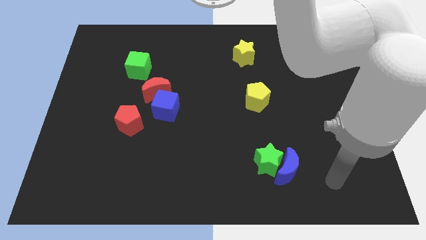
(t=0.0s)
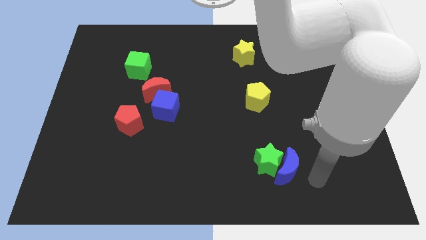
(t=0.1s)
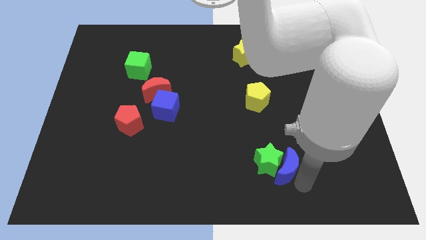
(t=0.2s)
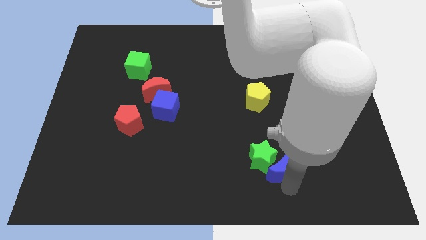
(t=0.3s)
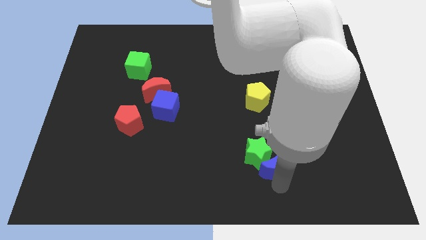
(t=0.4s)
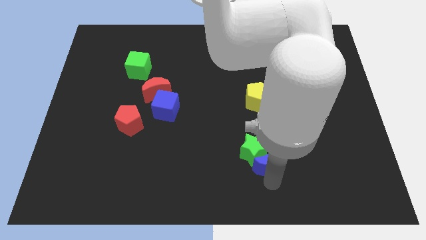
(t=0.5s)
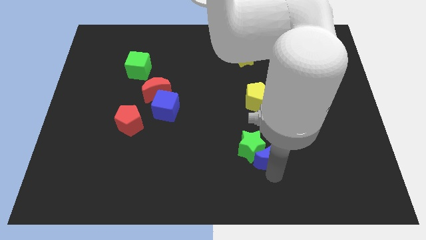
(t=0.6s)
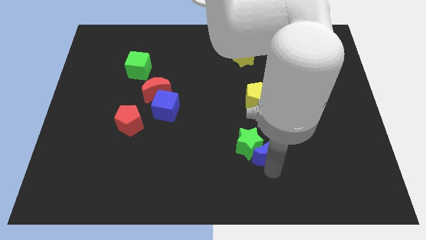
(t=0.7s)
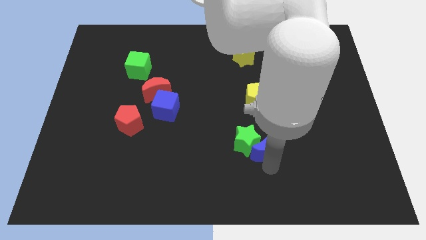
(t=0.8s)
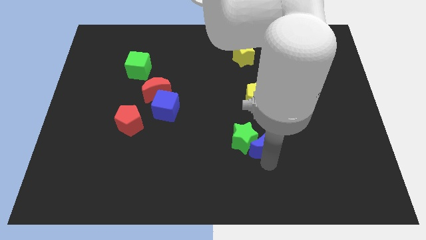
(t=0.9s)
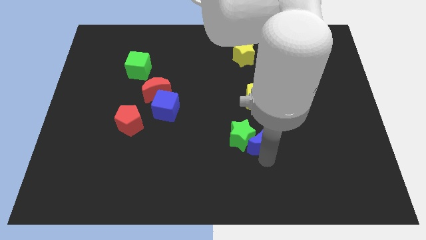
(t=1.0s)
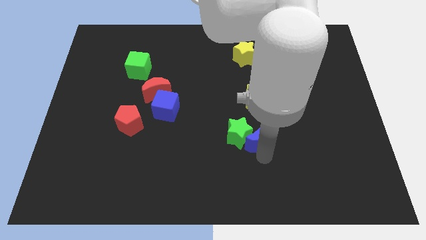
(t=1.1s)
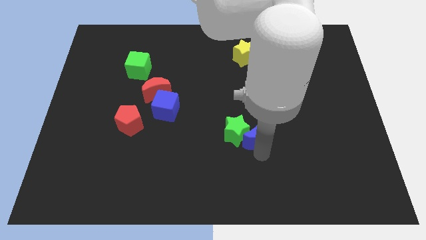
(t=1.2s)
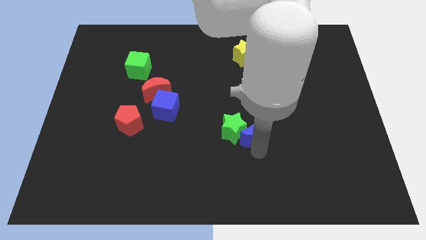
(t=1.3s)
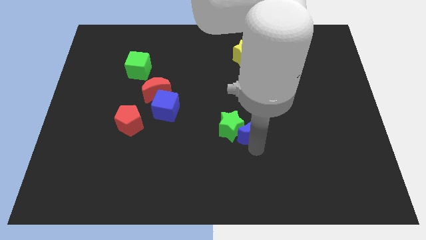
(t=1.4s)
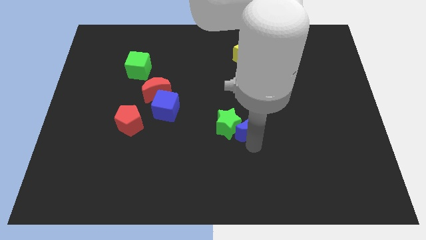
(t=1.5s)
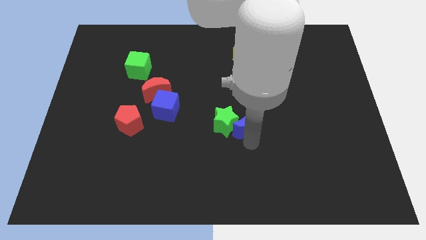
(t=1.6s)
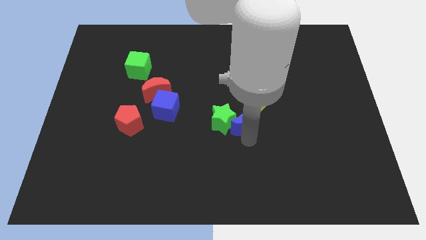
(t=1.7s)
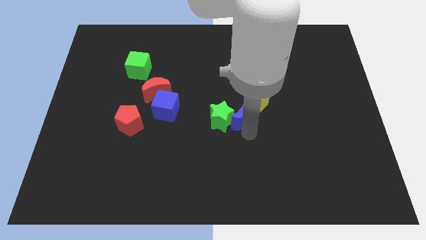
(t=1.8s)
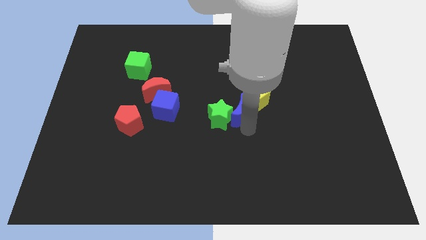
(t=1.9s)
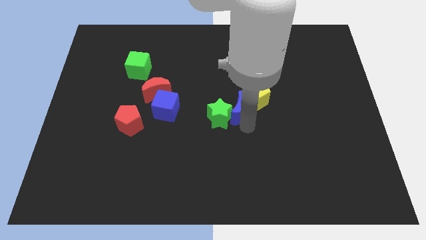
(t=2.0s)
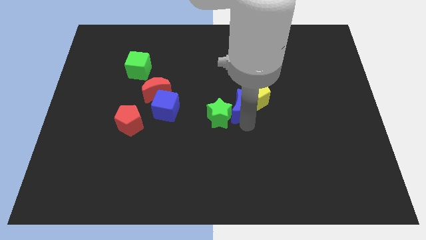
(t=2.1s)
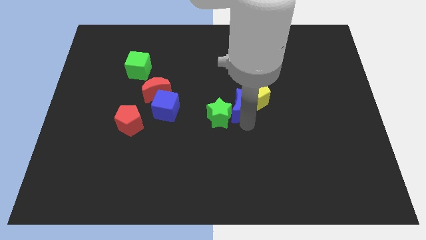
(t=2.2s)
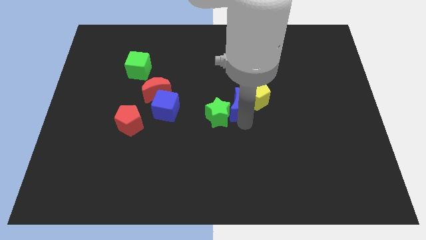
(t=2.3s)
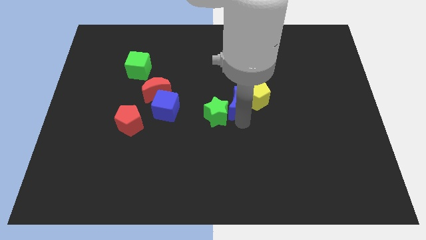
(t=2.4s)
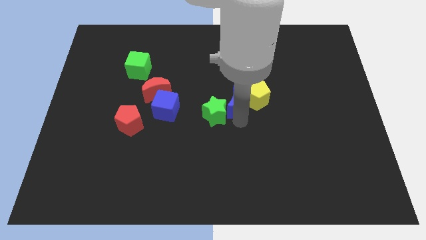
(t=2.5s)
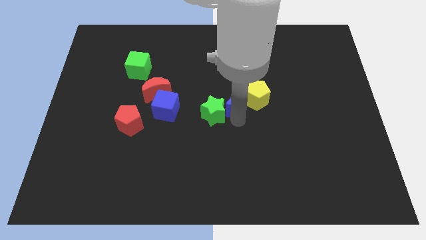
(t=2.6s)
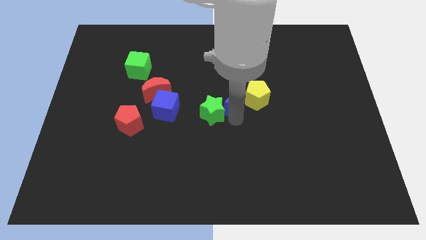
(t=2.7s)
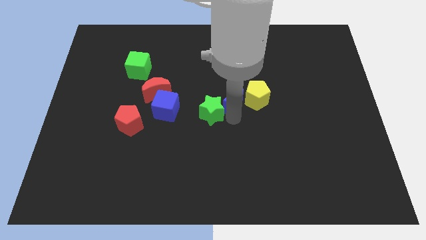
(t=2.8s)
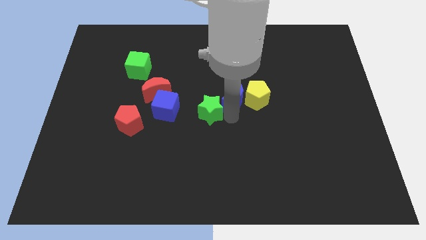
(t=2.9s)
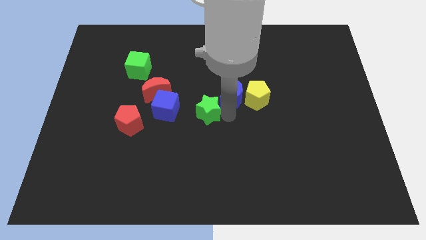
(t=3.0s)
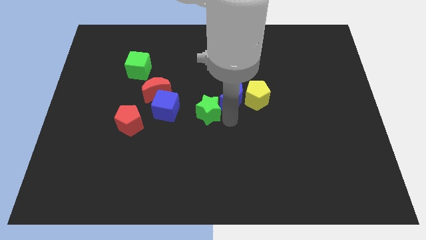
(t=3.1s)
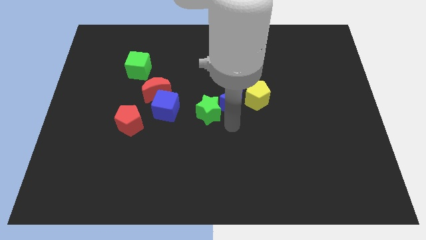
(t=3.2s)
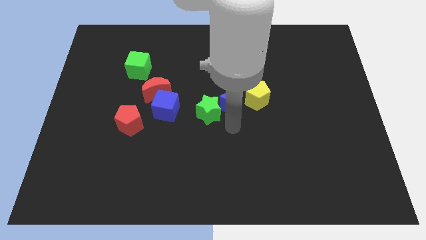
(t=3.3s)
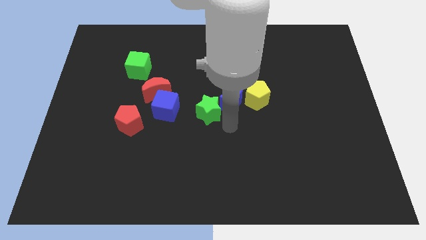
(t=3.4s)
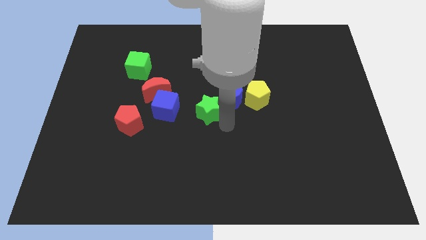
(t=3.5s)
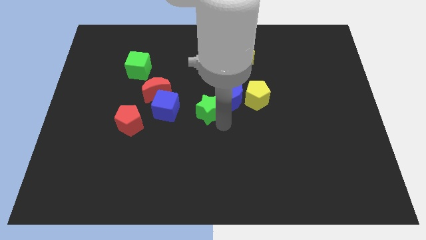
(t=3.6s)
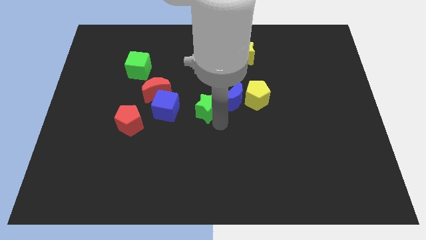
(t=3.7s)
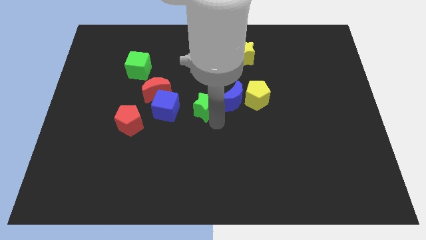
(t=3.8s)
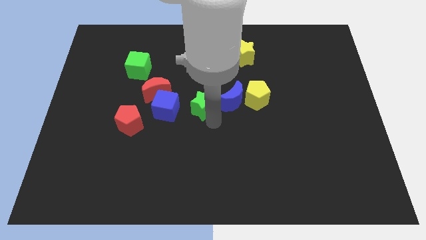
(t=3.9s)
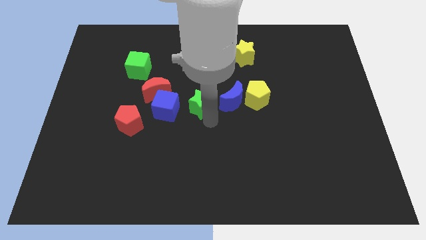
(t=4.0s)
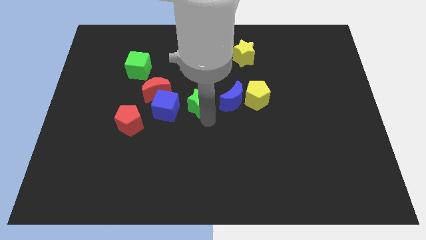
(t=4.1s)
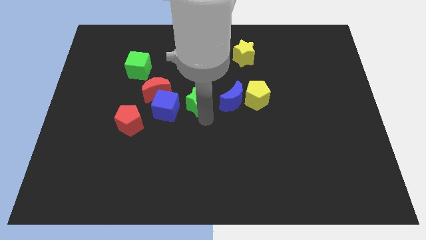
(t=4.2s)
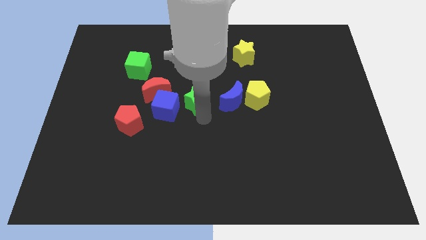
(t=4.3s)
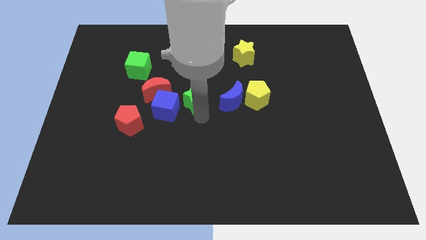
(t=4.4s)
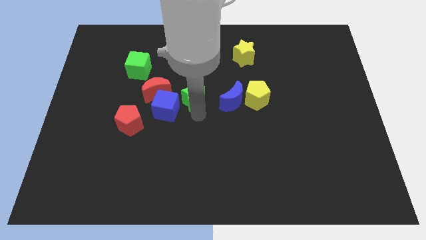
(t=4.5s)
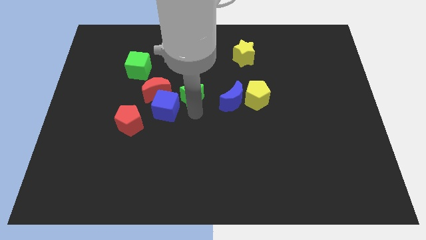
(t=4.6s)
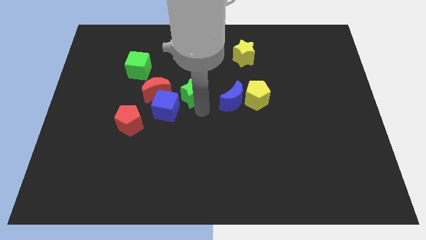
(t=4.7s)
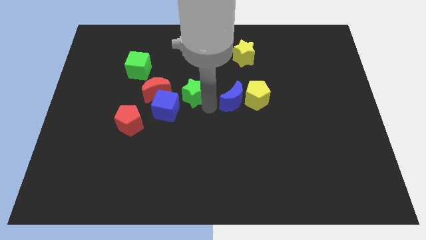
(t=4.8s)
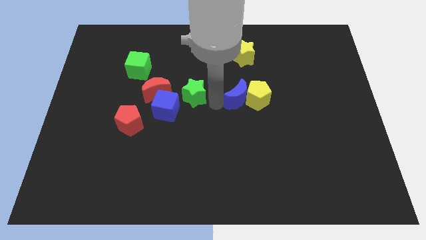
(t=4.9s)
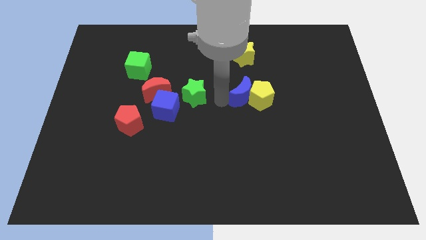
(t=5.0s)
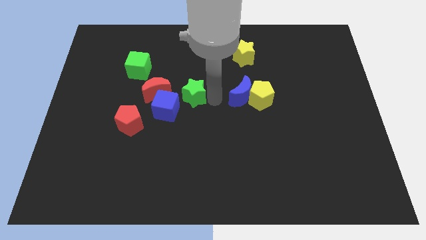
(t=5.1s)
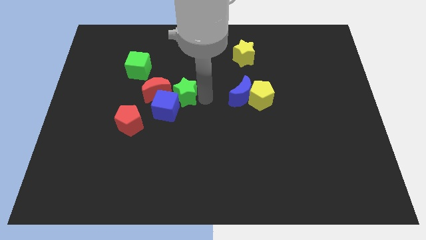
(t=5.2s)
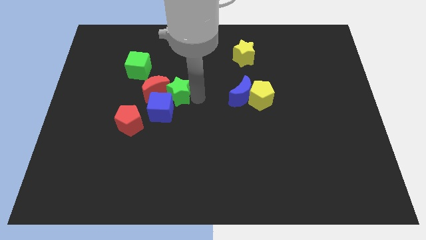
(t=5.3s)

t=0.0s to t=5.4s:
slide the green star to the red moon

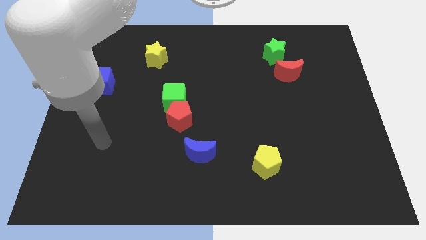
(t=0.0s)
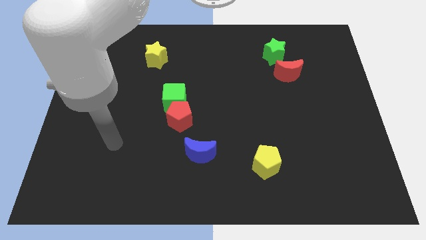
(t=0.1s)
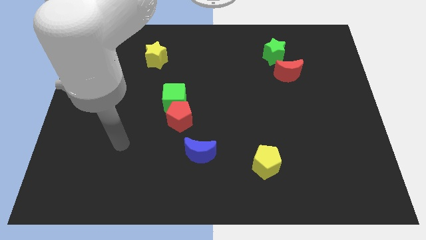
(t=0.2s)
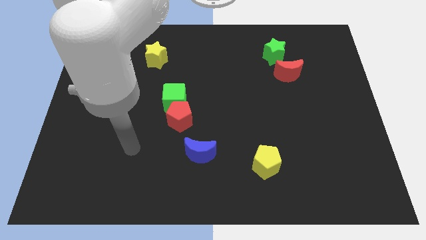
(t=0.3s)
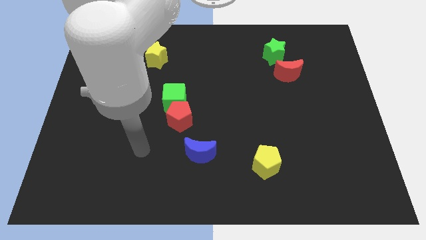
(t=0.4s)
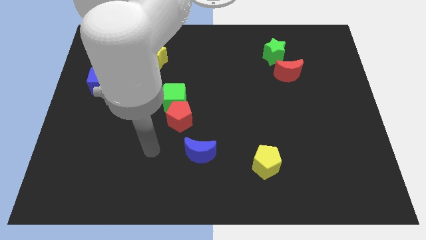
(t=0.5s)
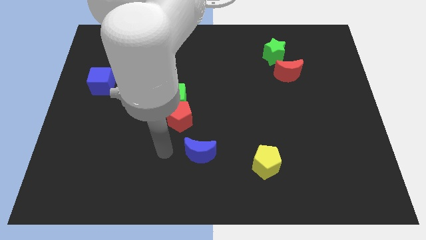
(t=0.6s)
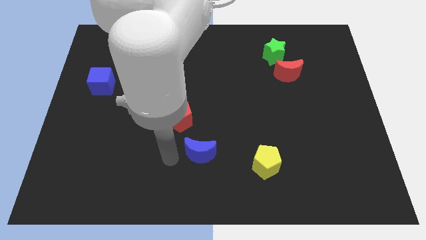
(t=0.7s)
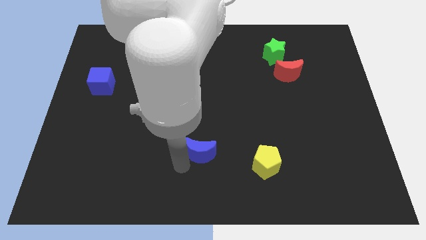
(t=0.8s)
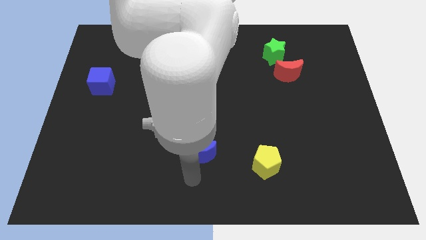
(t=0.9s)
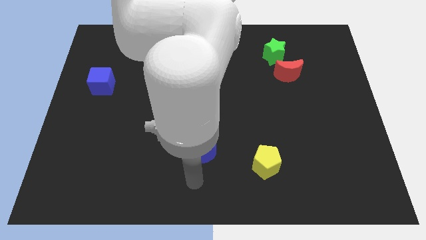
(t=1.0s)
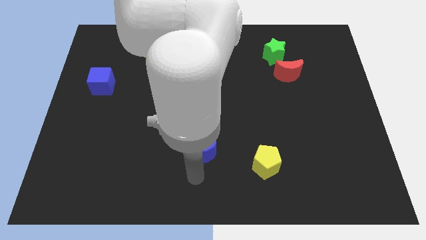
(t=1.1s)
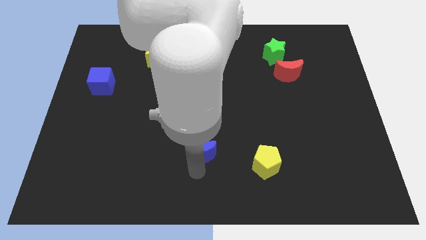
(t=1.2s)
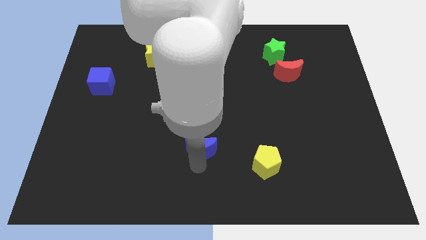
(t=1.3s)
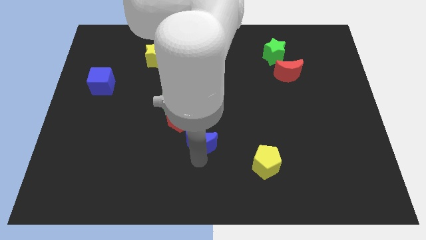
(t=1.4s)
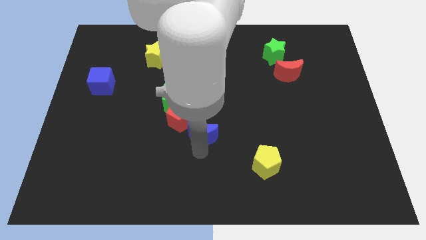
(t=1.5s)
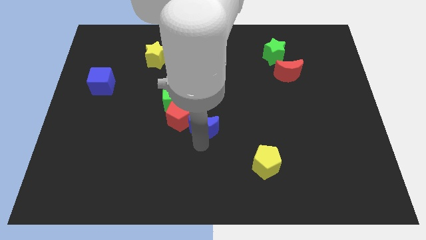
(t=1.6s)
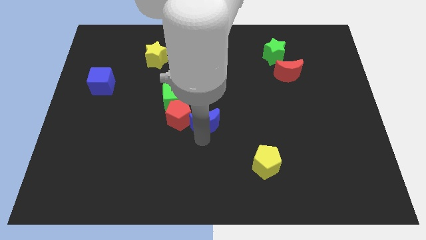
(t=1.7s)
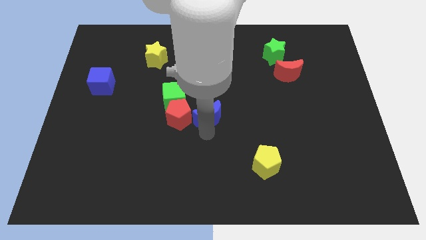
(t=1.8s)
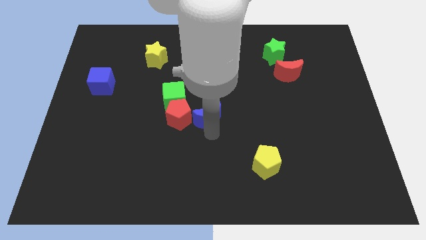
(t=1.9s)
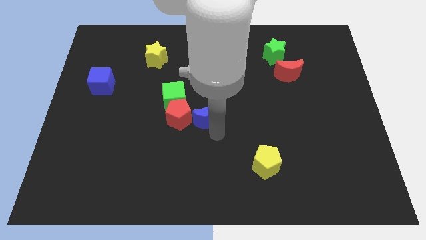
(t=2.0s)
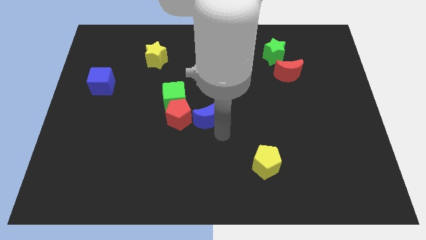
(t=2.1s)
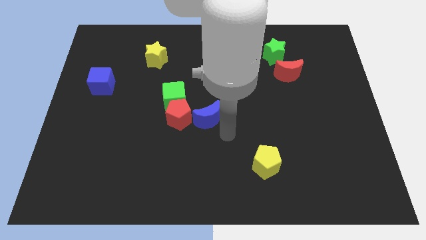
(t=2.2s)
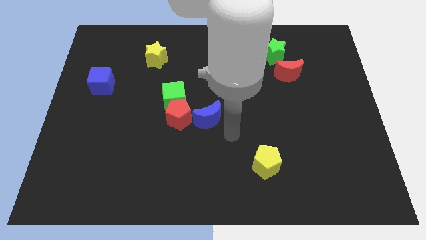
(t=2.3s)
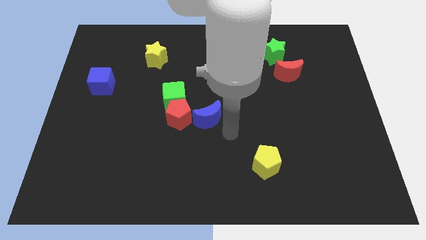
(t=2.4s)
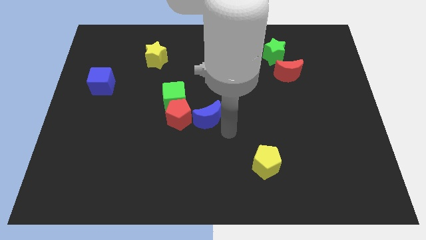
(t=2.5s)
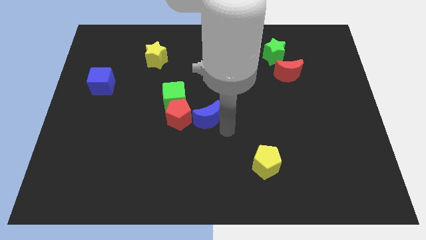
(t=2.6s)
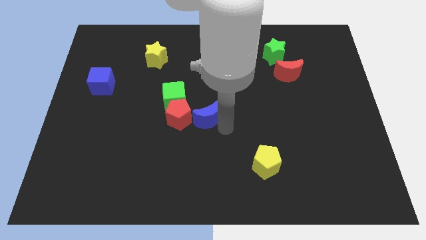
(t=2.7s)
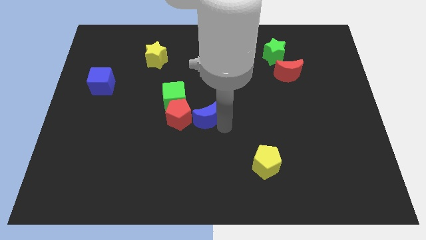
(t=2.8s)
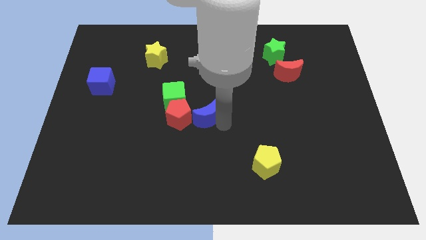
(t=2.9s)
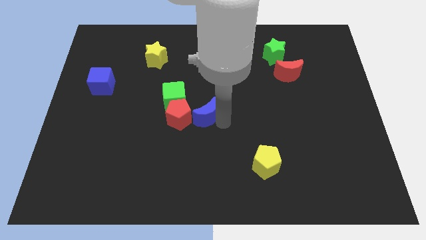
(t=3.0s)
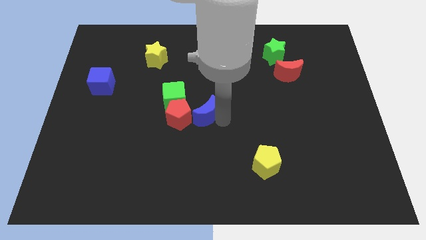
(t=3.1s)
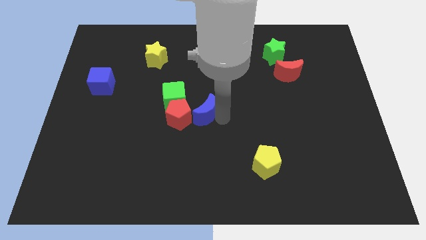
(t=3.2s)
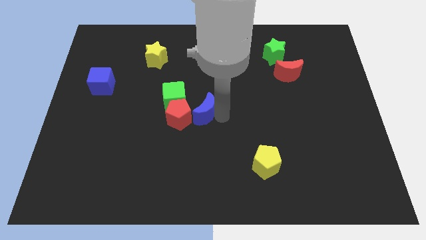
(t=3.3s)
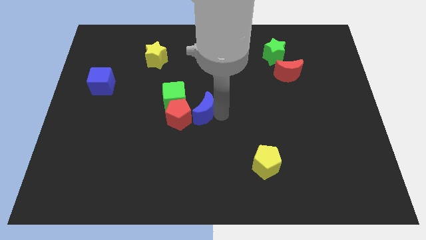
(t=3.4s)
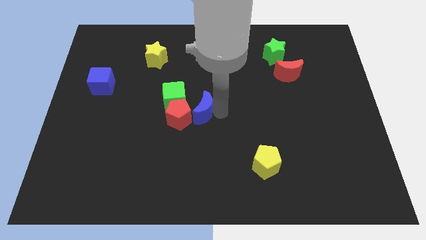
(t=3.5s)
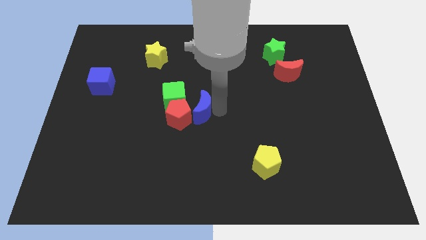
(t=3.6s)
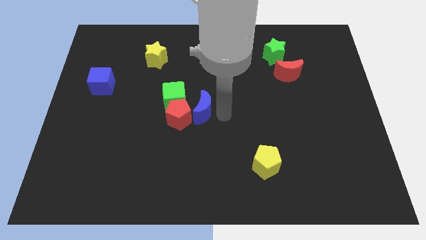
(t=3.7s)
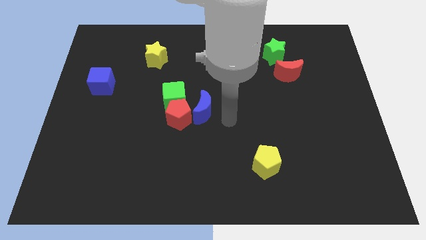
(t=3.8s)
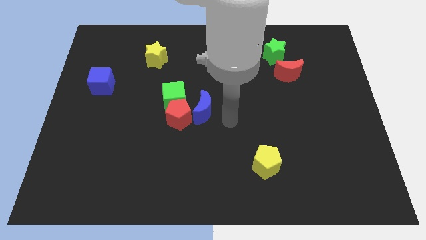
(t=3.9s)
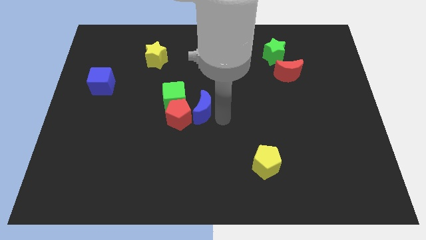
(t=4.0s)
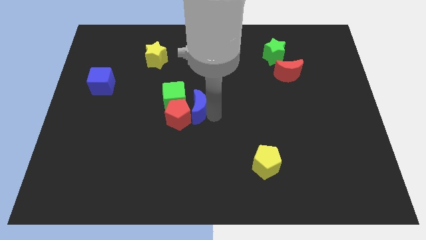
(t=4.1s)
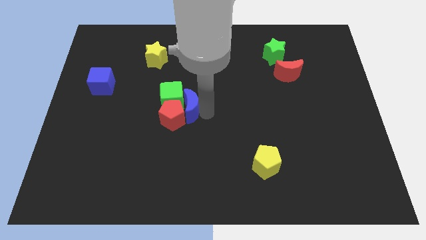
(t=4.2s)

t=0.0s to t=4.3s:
push the blue moon towards the green cube
